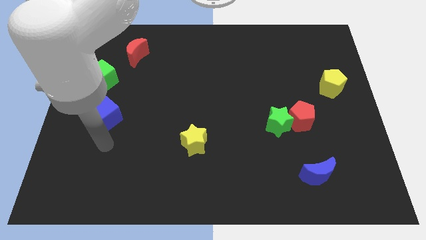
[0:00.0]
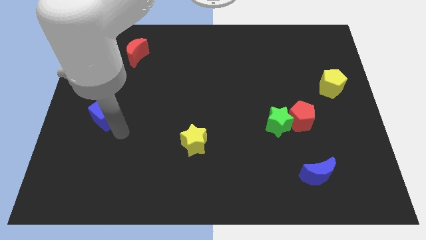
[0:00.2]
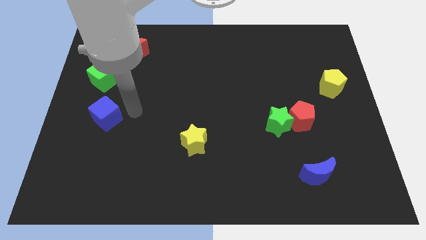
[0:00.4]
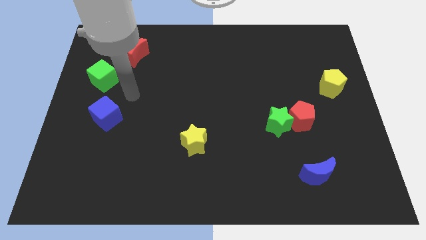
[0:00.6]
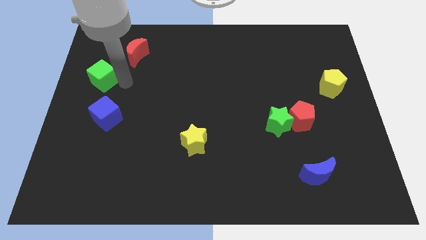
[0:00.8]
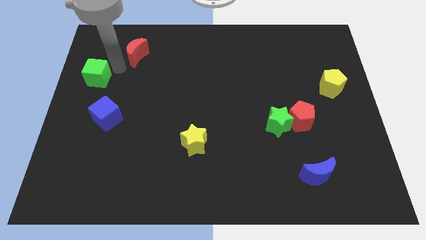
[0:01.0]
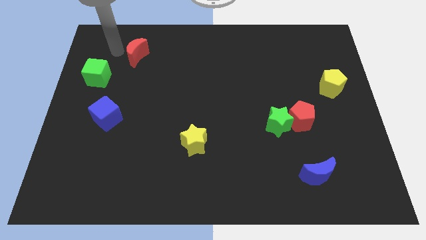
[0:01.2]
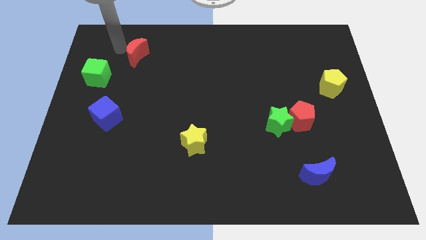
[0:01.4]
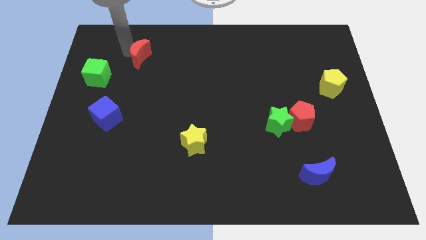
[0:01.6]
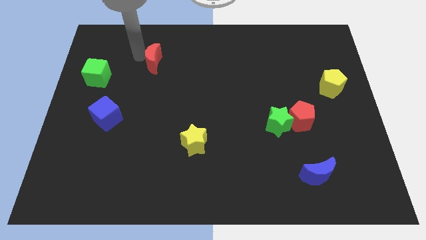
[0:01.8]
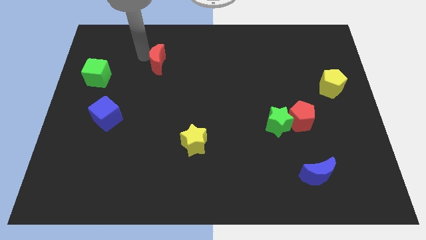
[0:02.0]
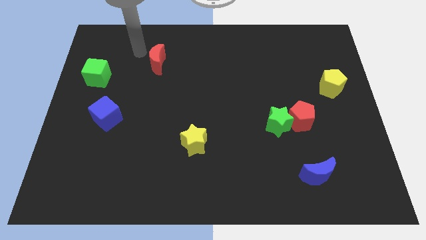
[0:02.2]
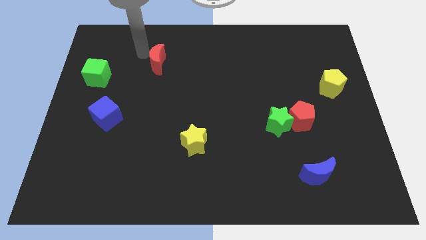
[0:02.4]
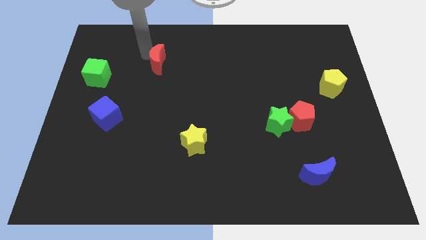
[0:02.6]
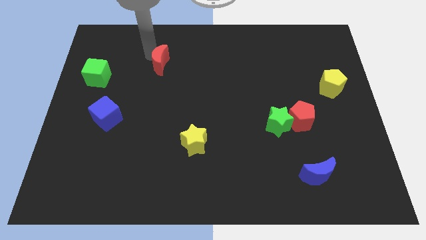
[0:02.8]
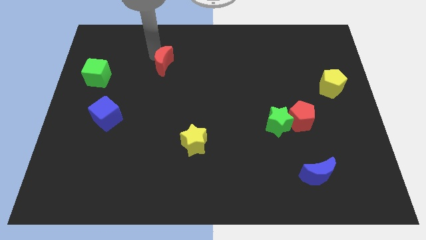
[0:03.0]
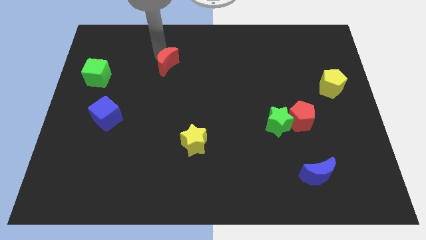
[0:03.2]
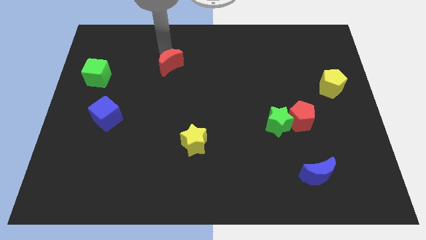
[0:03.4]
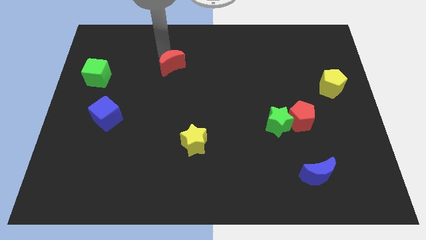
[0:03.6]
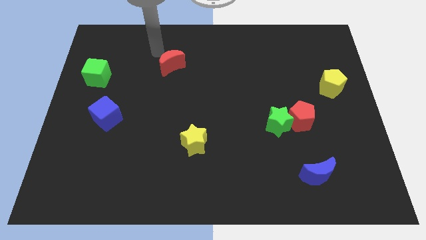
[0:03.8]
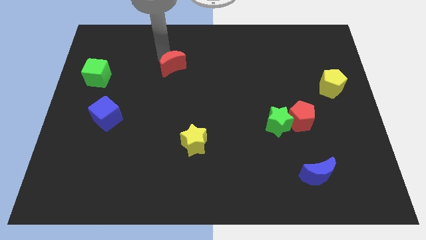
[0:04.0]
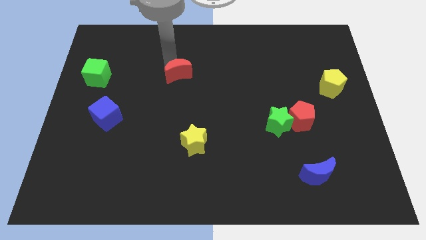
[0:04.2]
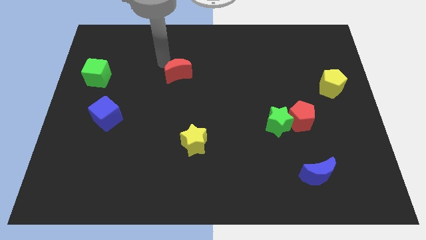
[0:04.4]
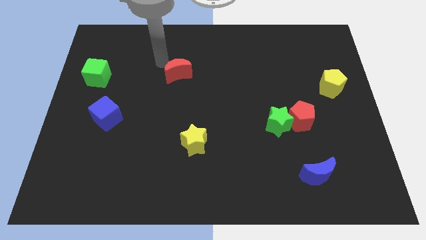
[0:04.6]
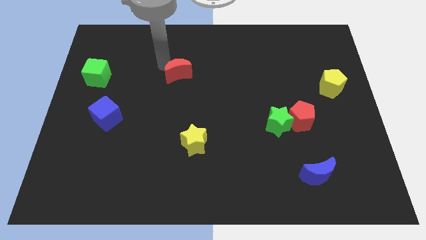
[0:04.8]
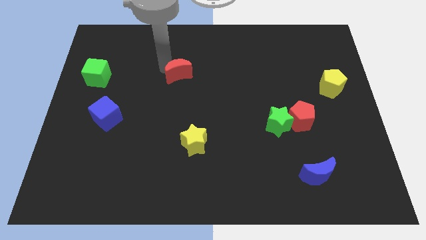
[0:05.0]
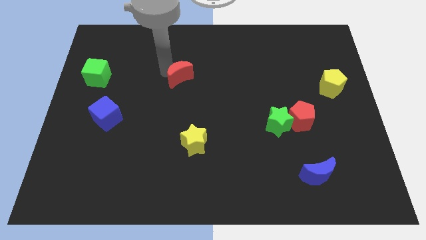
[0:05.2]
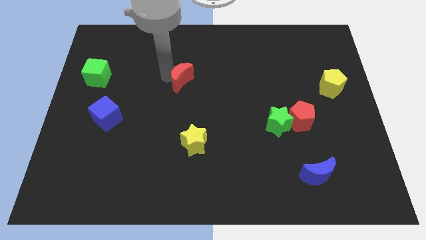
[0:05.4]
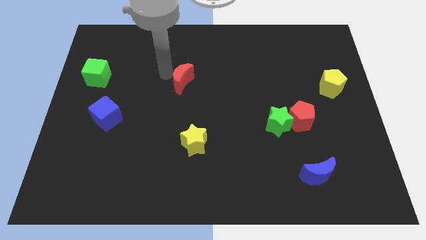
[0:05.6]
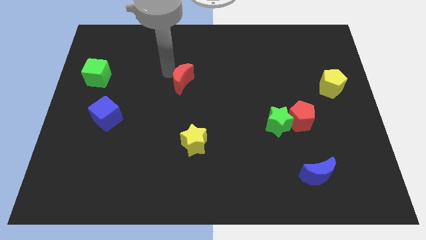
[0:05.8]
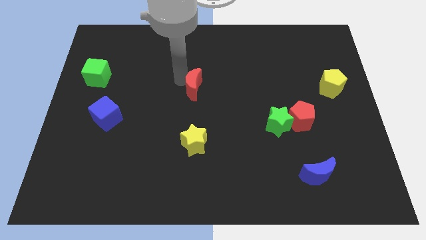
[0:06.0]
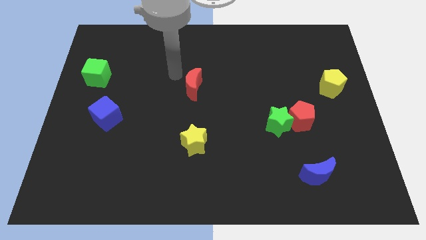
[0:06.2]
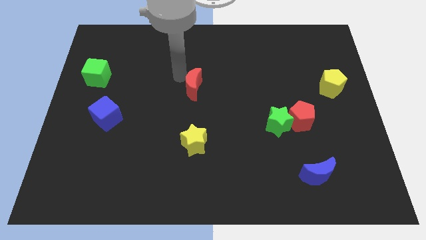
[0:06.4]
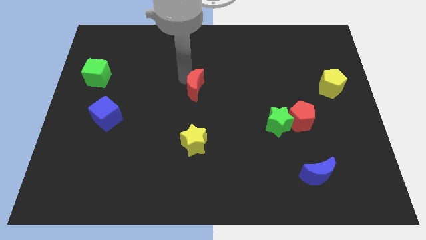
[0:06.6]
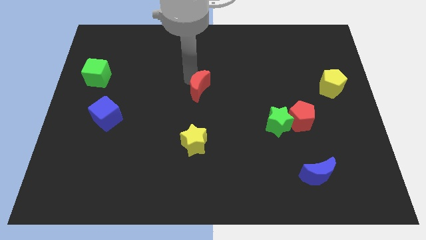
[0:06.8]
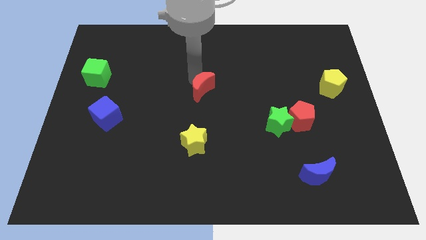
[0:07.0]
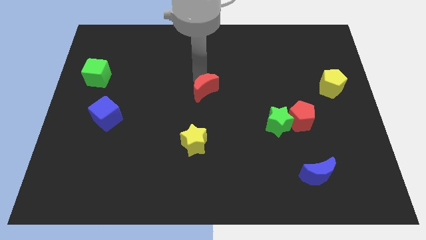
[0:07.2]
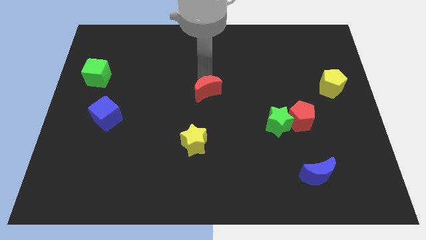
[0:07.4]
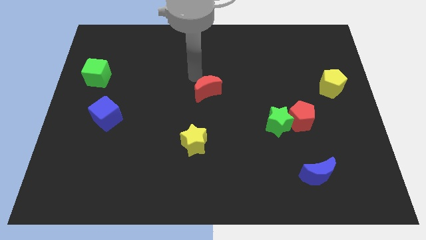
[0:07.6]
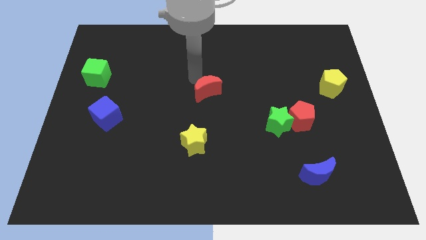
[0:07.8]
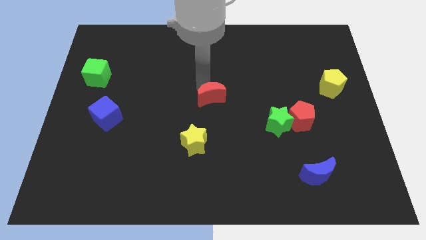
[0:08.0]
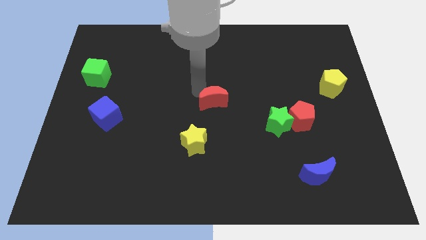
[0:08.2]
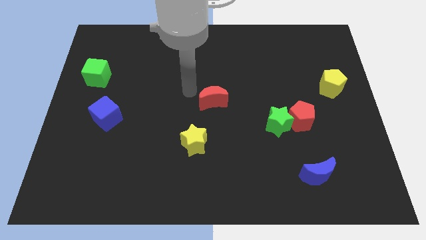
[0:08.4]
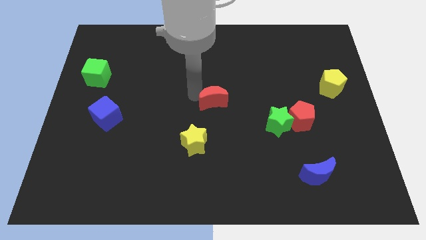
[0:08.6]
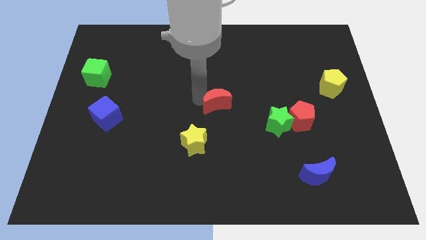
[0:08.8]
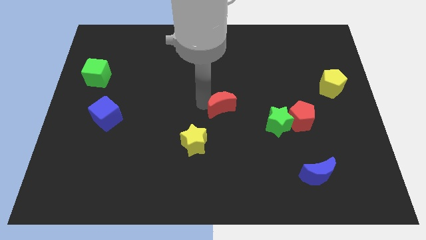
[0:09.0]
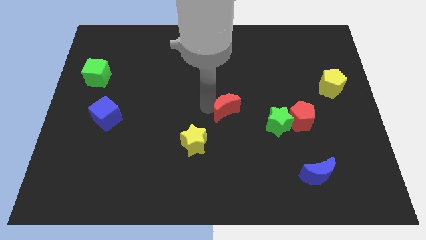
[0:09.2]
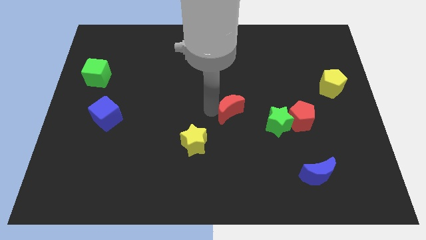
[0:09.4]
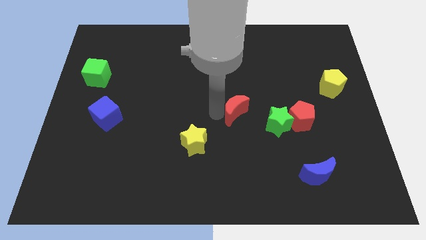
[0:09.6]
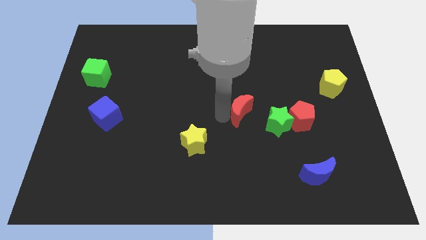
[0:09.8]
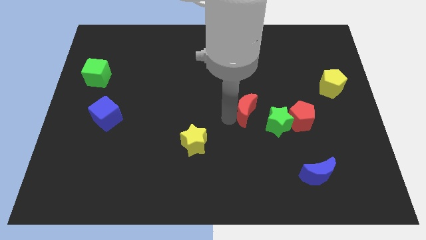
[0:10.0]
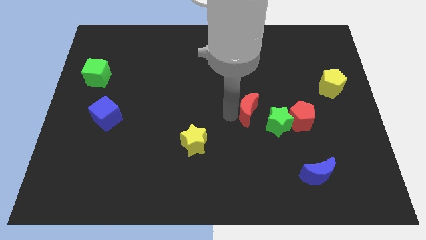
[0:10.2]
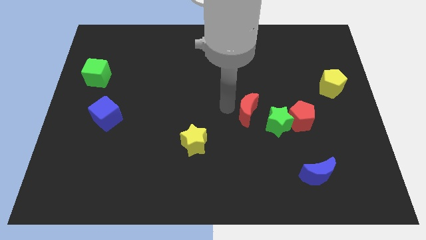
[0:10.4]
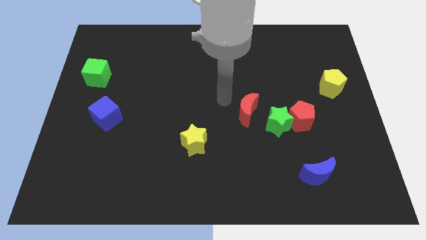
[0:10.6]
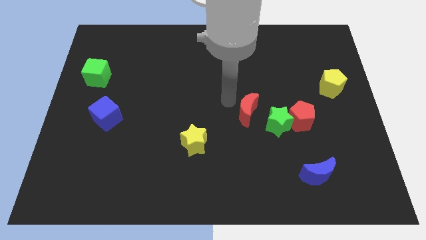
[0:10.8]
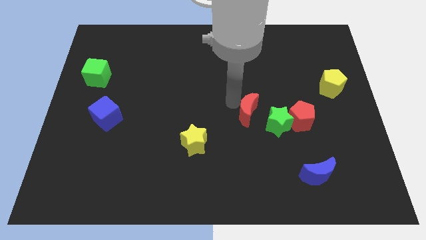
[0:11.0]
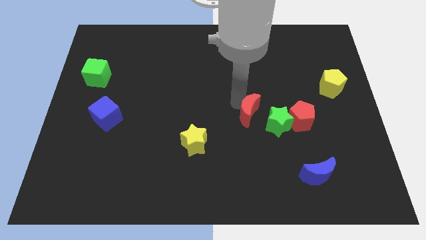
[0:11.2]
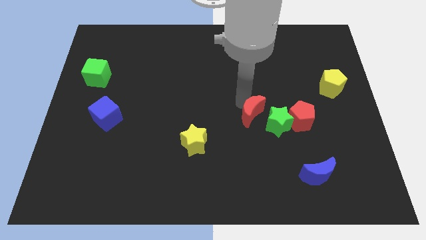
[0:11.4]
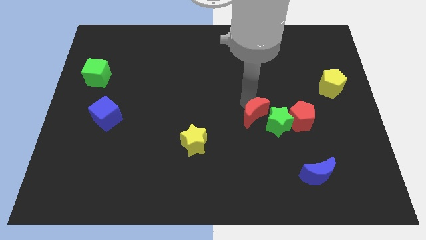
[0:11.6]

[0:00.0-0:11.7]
slide the red moon next to the green star

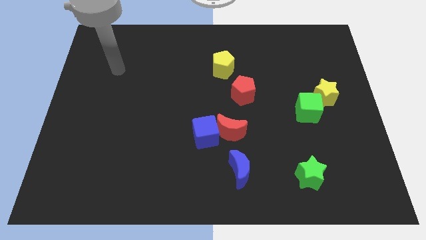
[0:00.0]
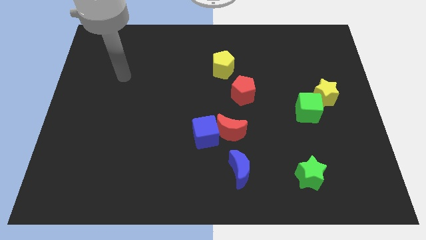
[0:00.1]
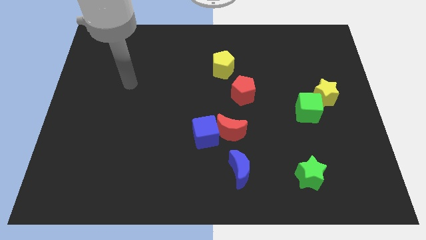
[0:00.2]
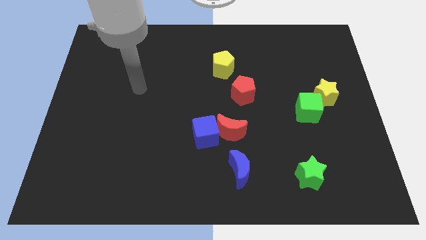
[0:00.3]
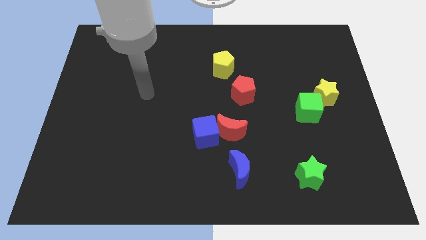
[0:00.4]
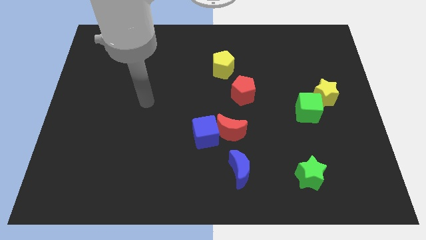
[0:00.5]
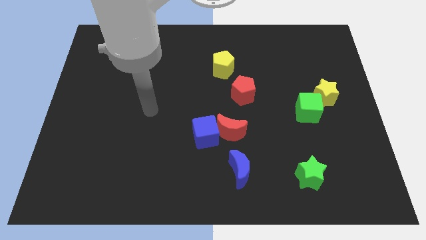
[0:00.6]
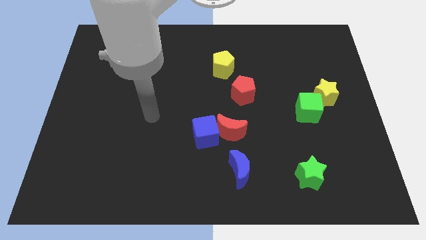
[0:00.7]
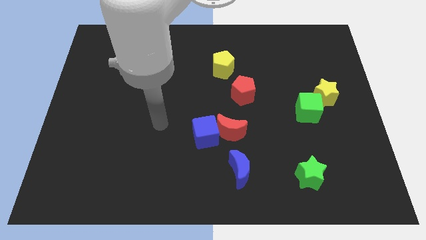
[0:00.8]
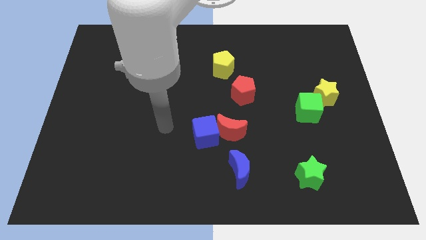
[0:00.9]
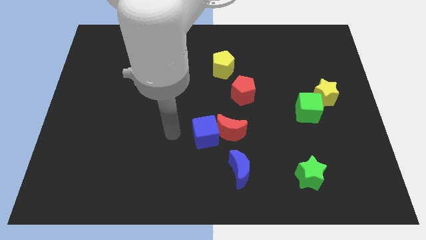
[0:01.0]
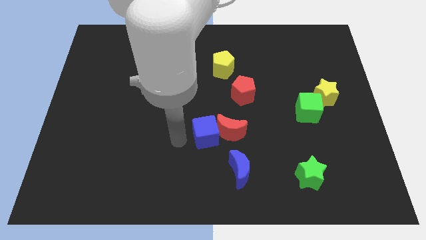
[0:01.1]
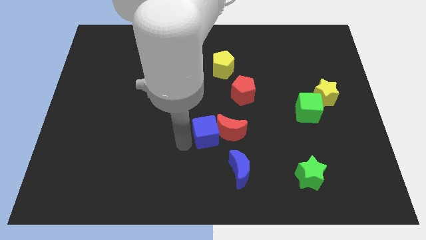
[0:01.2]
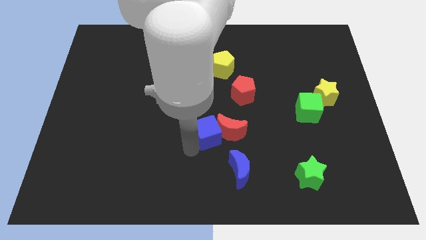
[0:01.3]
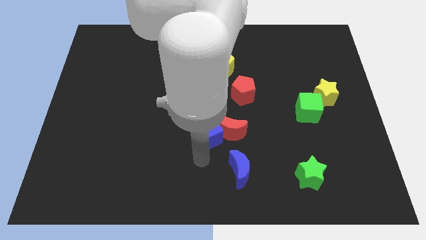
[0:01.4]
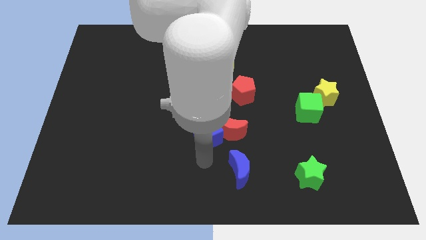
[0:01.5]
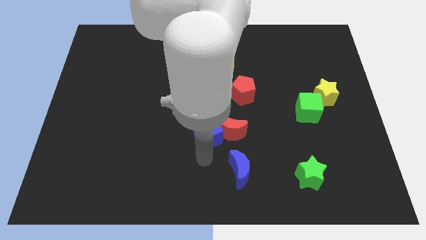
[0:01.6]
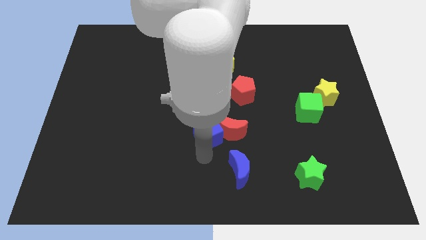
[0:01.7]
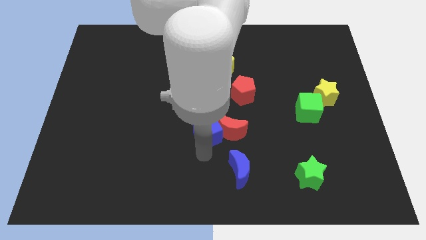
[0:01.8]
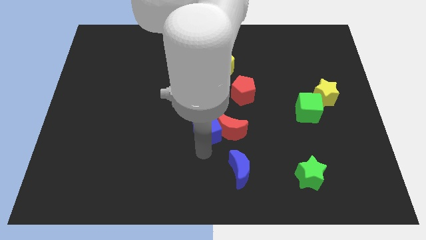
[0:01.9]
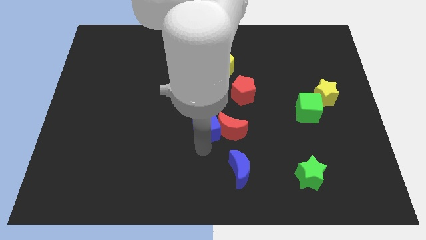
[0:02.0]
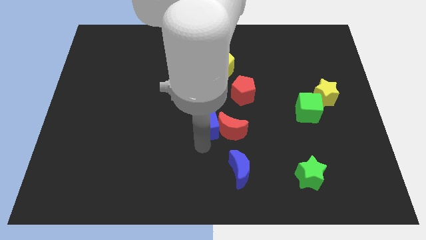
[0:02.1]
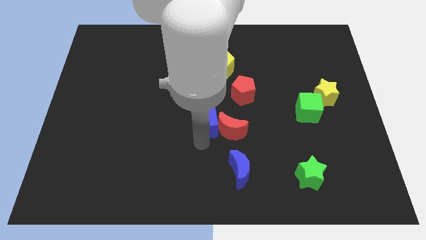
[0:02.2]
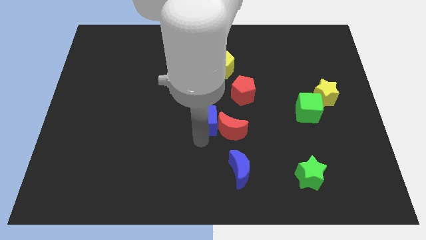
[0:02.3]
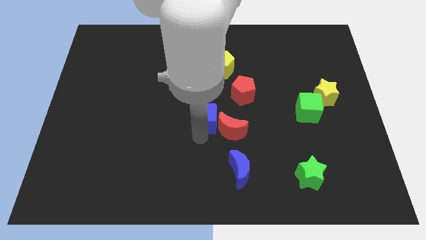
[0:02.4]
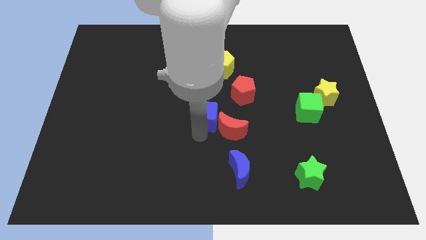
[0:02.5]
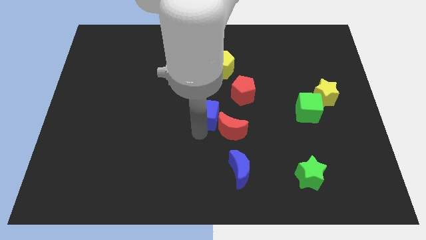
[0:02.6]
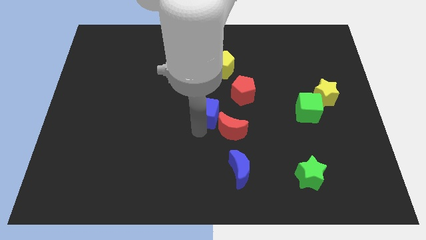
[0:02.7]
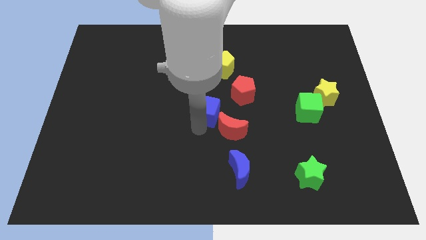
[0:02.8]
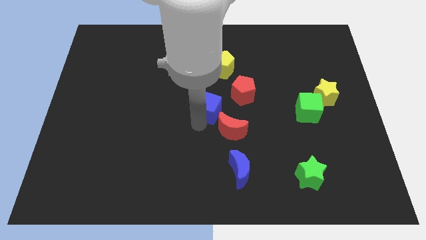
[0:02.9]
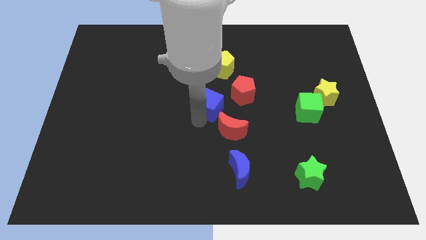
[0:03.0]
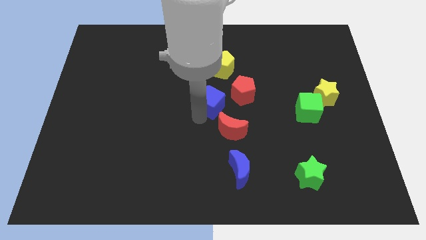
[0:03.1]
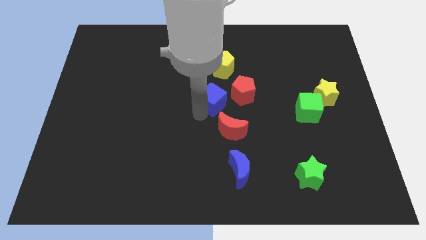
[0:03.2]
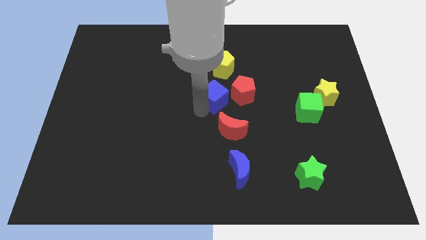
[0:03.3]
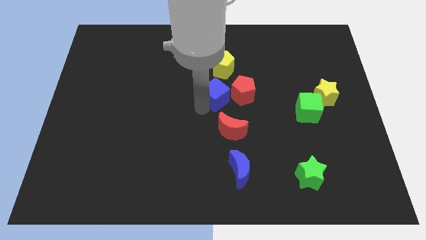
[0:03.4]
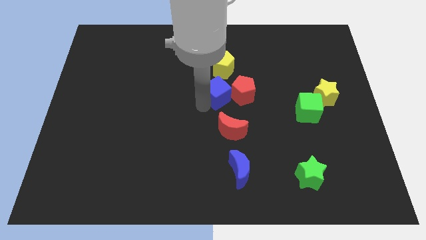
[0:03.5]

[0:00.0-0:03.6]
move the blue cube close to the red pentagon
